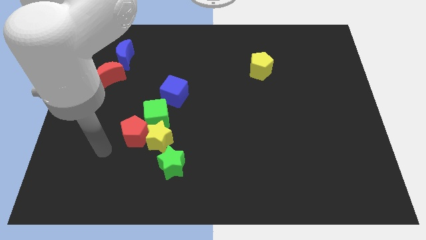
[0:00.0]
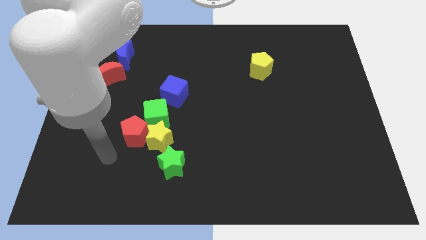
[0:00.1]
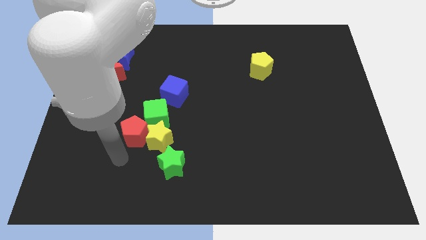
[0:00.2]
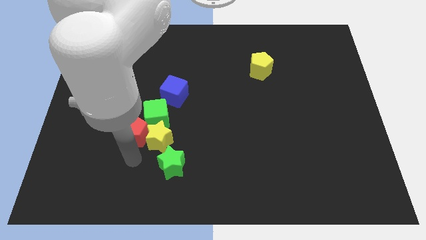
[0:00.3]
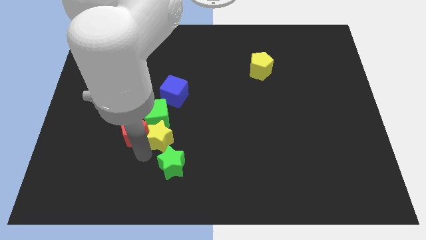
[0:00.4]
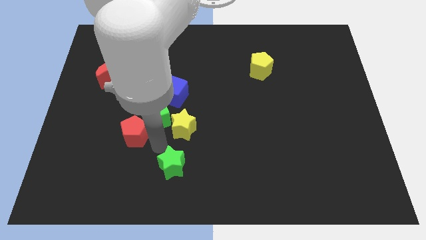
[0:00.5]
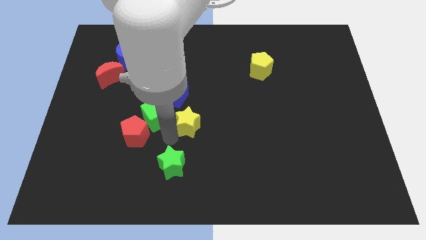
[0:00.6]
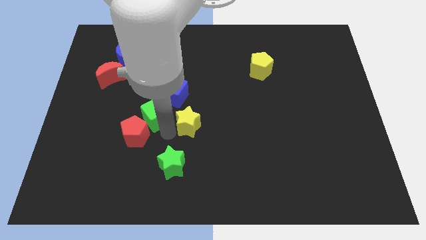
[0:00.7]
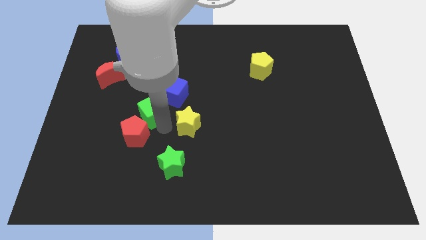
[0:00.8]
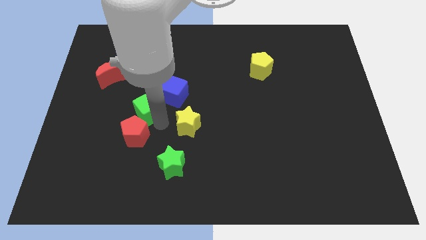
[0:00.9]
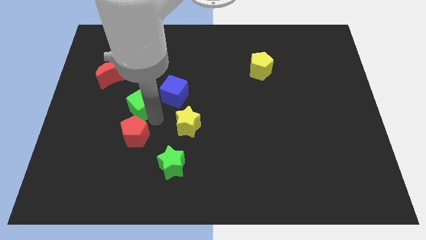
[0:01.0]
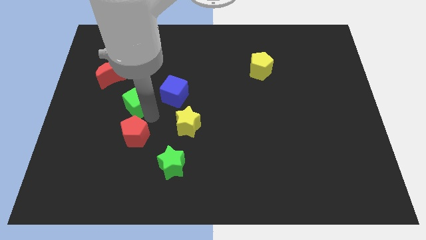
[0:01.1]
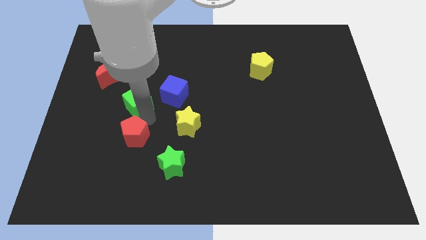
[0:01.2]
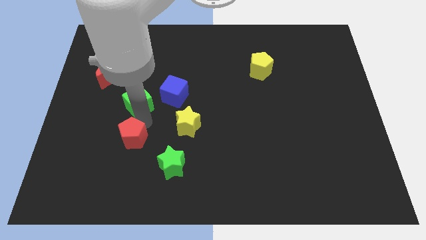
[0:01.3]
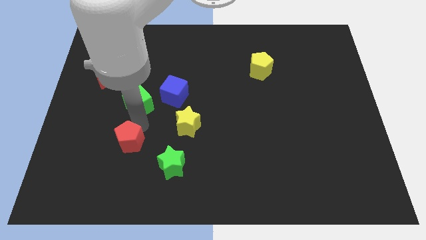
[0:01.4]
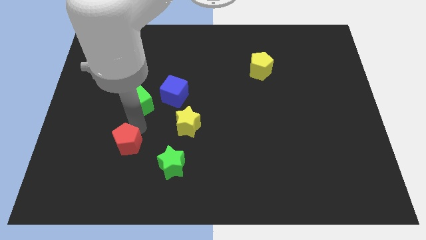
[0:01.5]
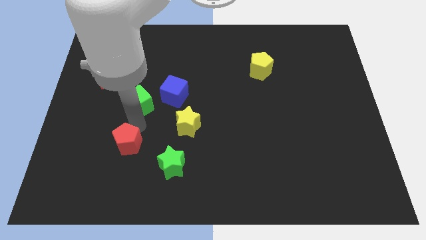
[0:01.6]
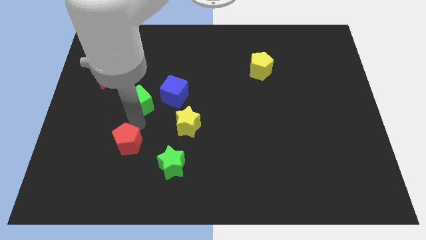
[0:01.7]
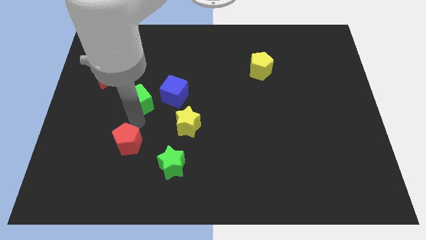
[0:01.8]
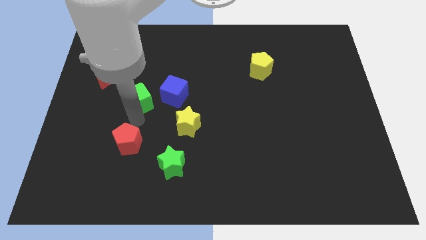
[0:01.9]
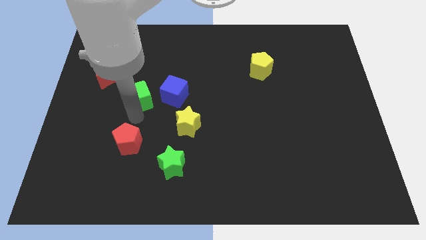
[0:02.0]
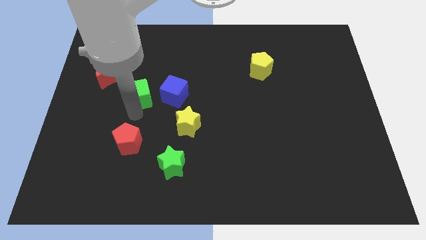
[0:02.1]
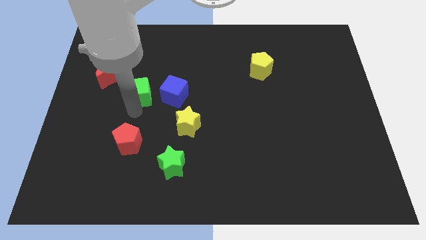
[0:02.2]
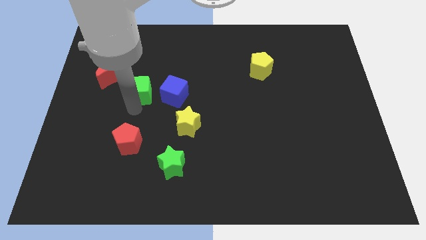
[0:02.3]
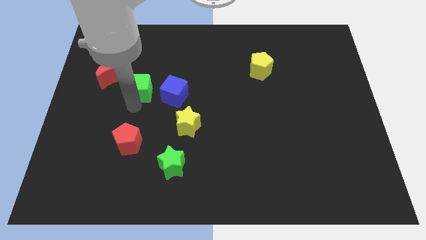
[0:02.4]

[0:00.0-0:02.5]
move the green cube up somewhat

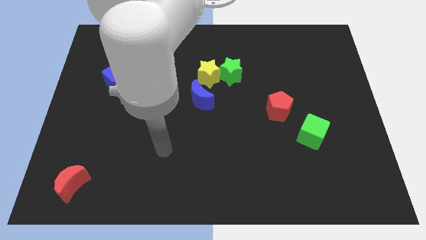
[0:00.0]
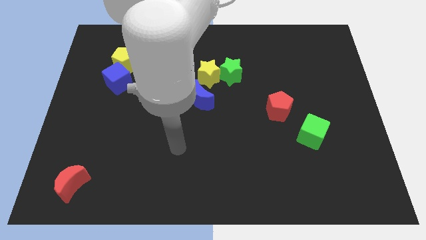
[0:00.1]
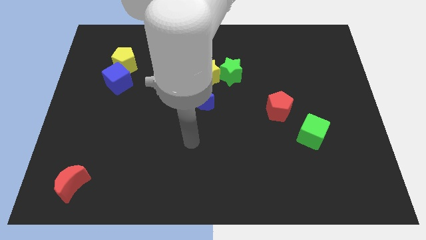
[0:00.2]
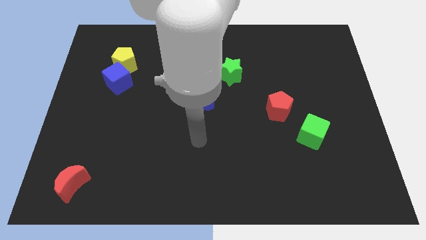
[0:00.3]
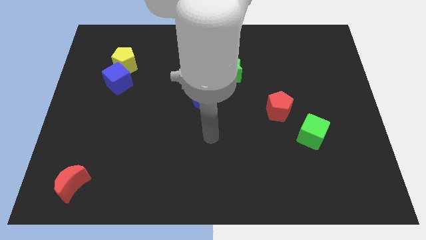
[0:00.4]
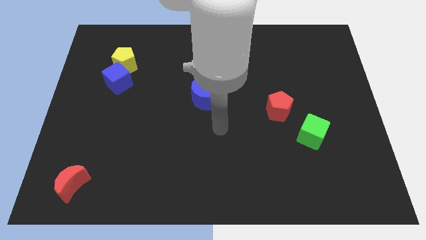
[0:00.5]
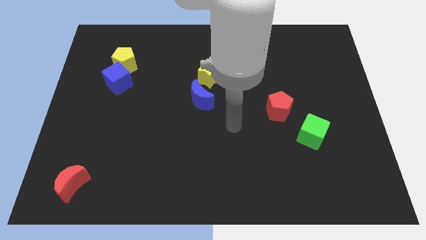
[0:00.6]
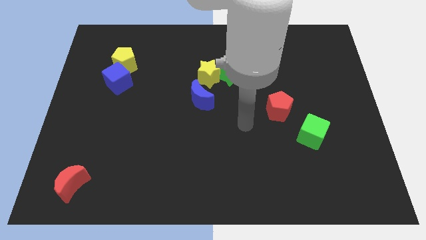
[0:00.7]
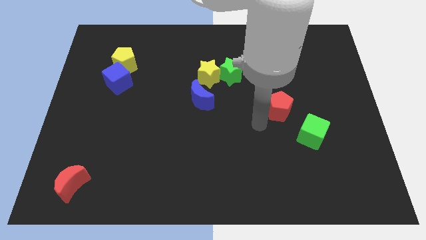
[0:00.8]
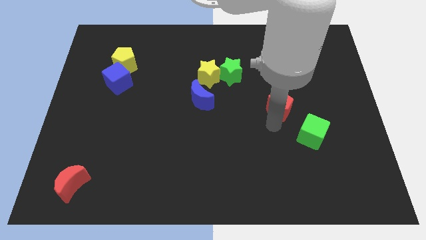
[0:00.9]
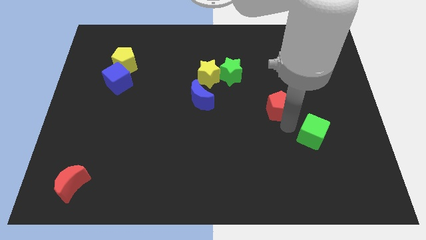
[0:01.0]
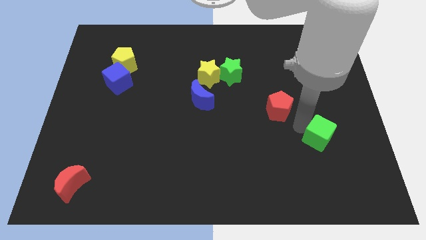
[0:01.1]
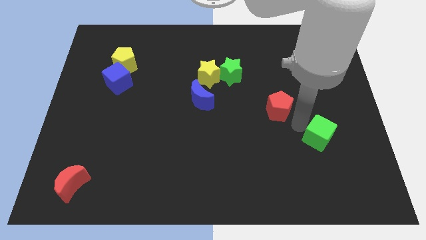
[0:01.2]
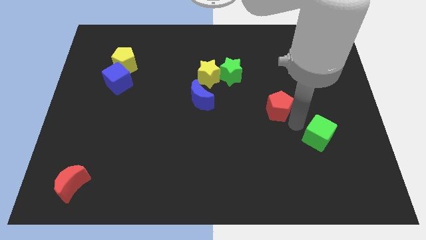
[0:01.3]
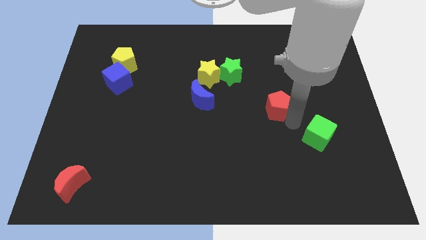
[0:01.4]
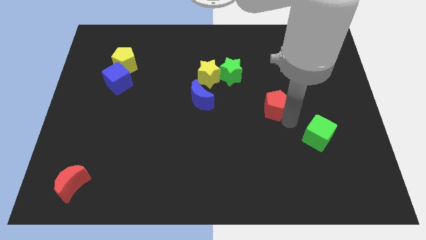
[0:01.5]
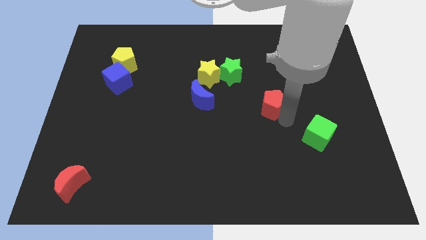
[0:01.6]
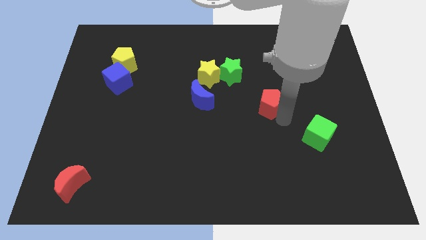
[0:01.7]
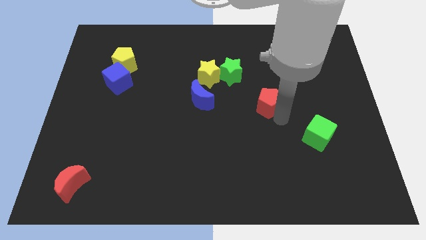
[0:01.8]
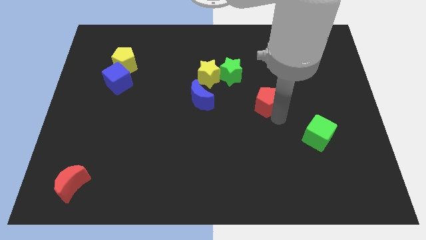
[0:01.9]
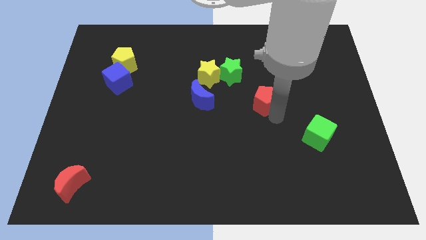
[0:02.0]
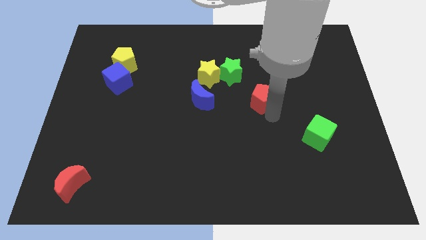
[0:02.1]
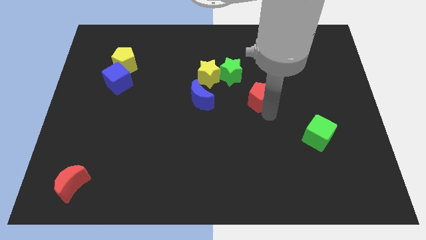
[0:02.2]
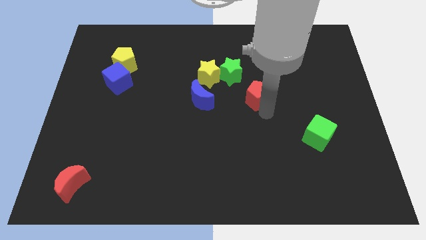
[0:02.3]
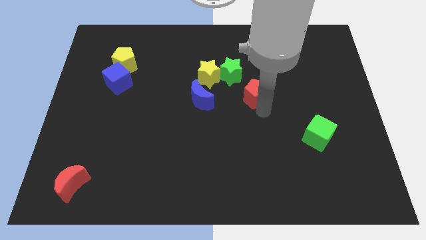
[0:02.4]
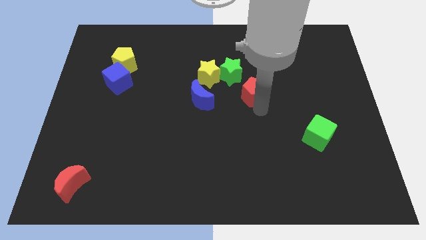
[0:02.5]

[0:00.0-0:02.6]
move the red pentagon up and then left a little bit

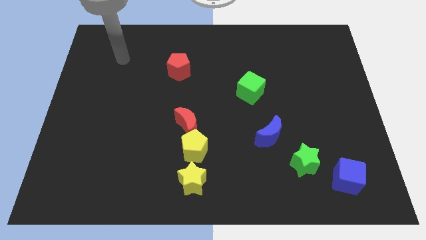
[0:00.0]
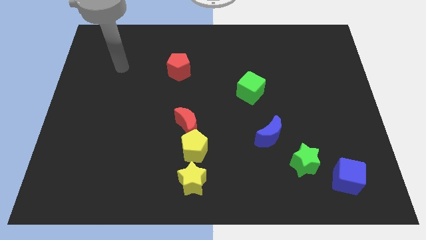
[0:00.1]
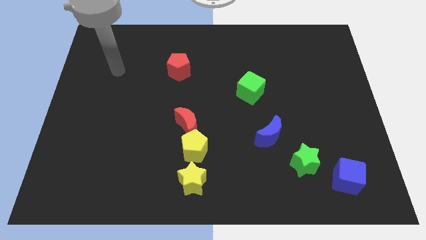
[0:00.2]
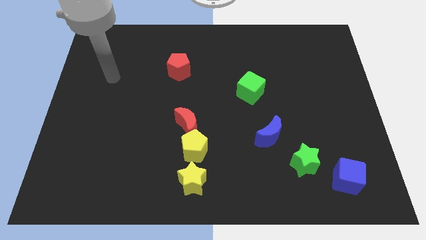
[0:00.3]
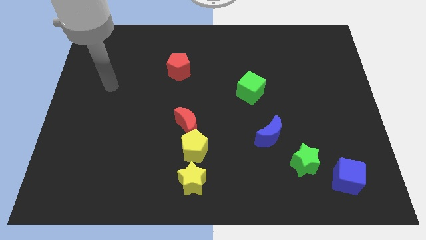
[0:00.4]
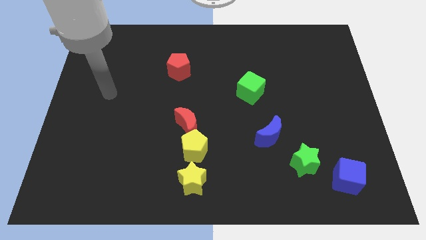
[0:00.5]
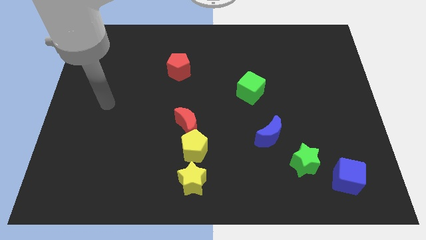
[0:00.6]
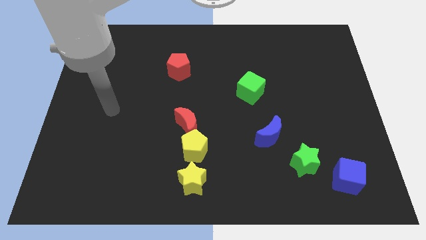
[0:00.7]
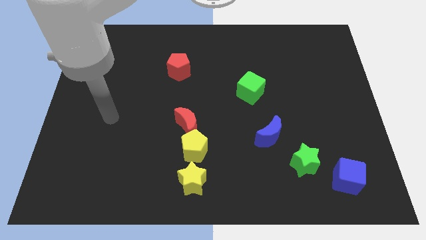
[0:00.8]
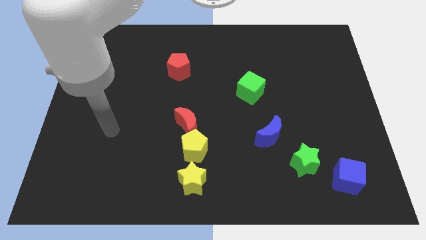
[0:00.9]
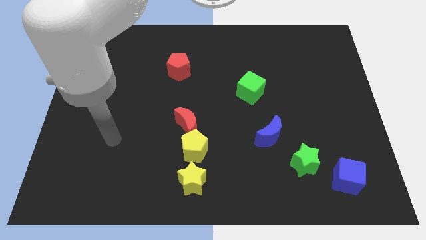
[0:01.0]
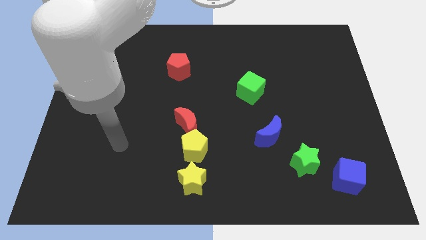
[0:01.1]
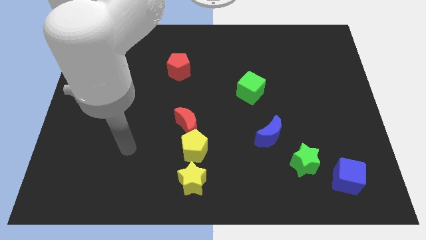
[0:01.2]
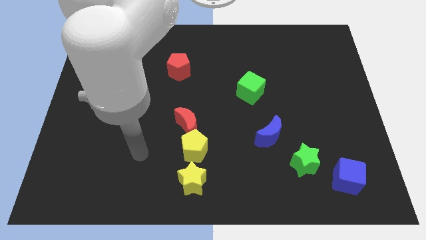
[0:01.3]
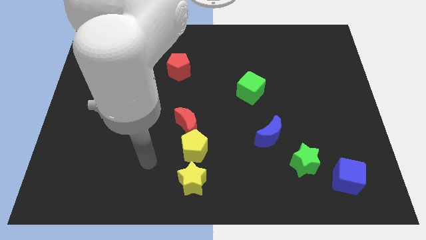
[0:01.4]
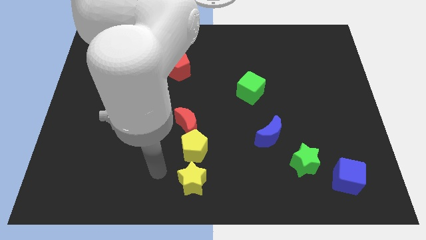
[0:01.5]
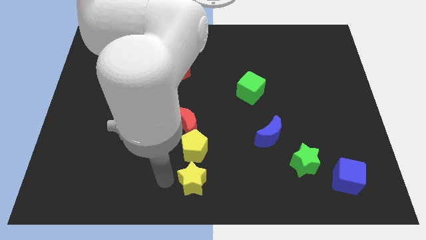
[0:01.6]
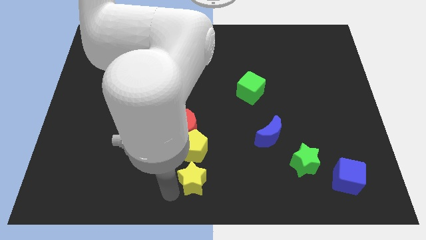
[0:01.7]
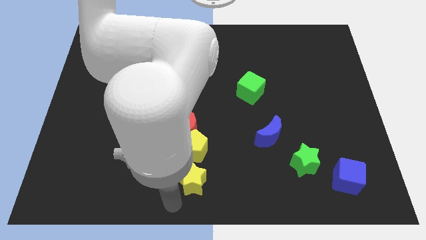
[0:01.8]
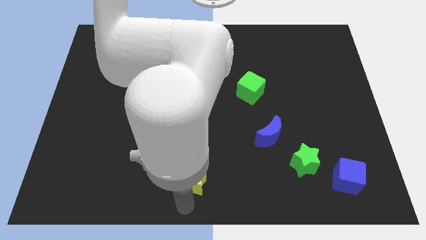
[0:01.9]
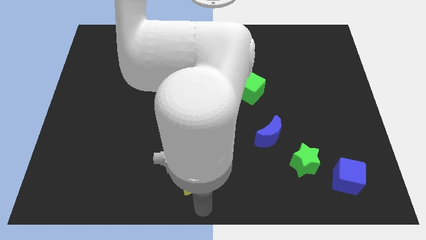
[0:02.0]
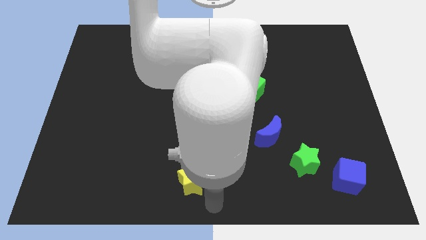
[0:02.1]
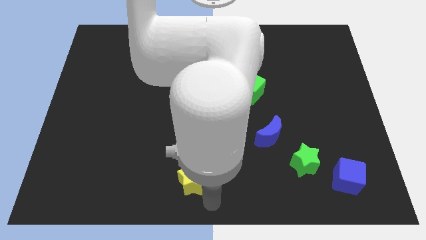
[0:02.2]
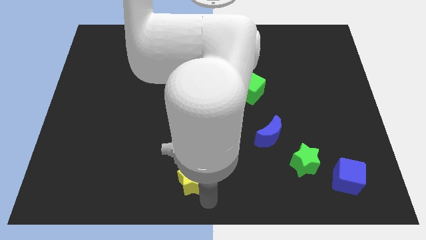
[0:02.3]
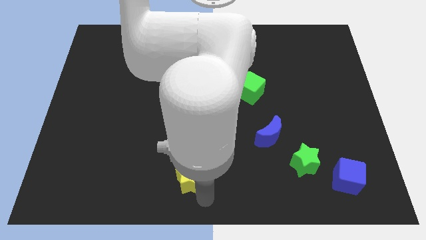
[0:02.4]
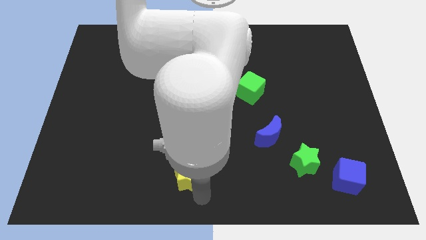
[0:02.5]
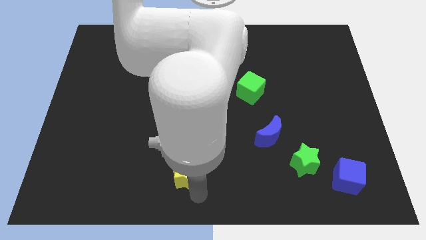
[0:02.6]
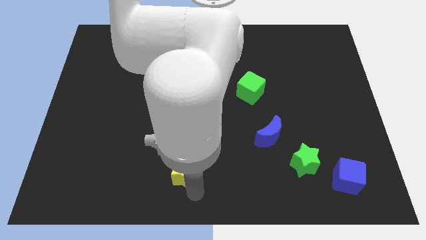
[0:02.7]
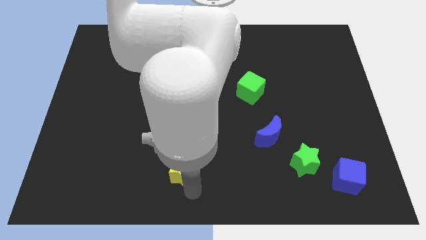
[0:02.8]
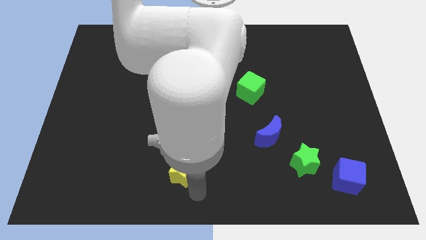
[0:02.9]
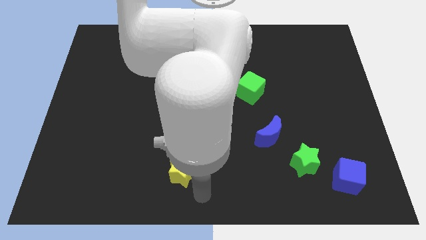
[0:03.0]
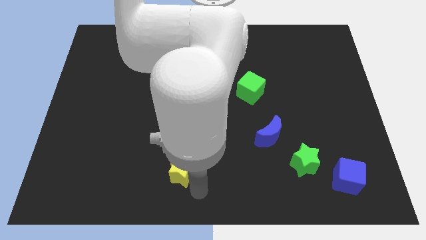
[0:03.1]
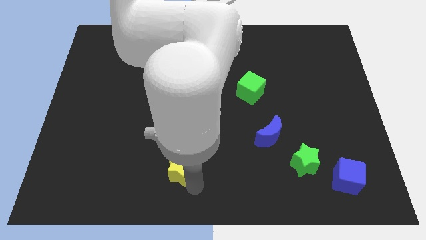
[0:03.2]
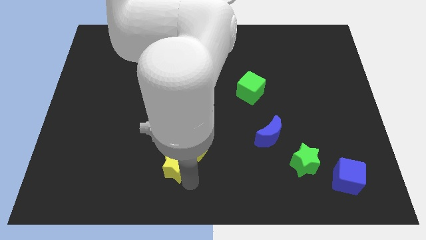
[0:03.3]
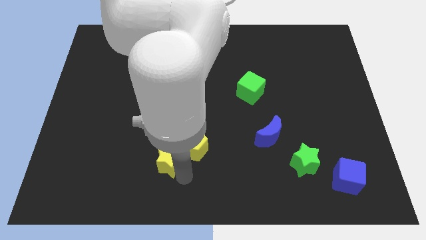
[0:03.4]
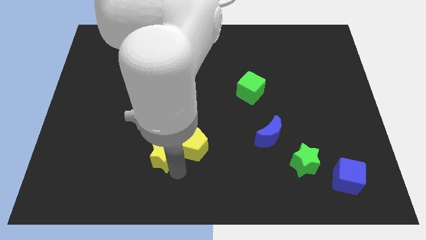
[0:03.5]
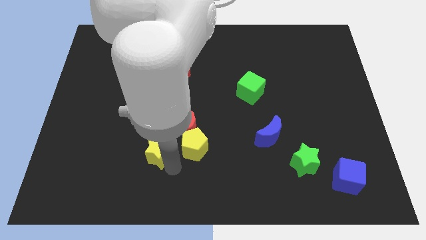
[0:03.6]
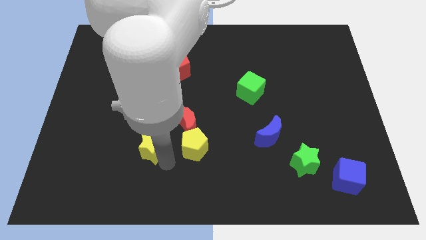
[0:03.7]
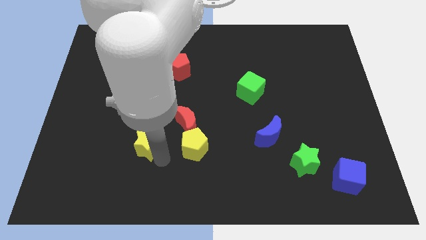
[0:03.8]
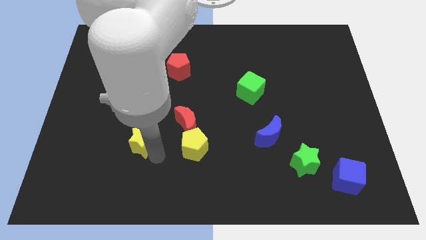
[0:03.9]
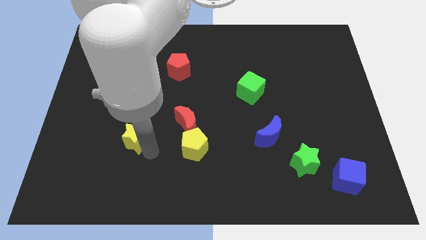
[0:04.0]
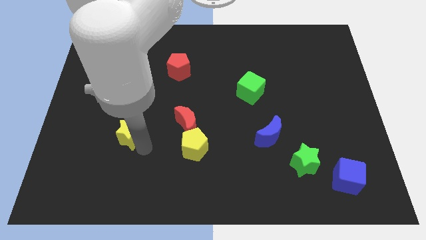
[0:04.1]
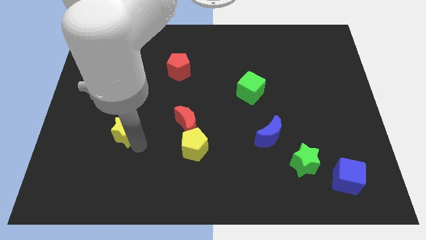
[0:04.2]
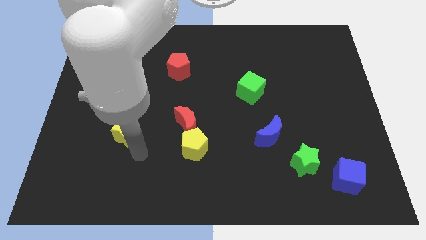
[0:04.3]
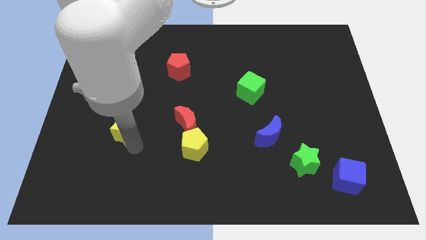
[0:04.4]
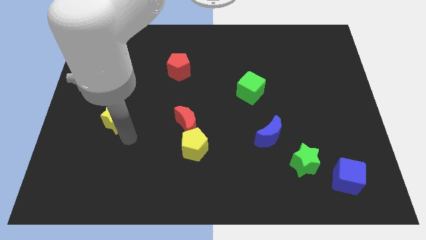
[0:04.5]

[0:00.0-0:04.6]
move the yellow star upwards and then left
